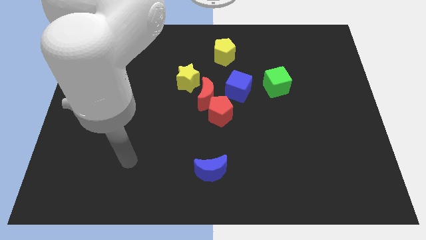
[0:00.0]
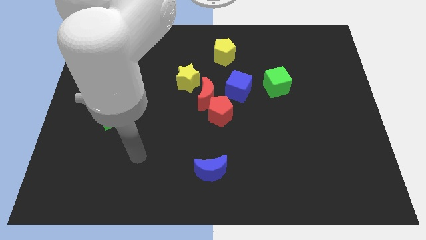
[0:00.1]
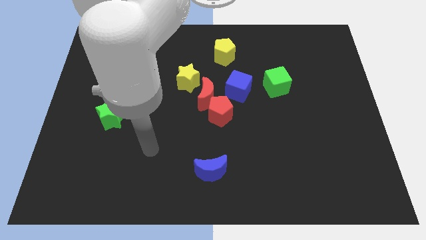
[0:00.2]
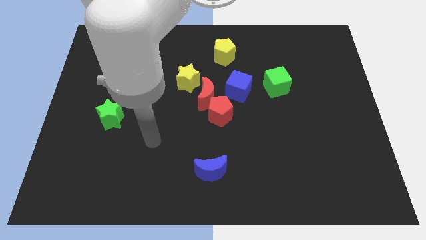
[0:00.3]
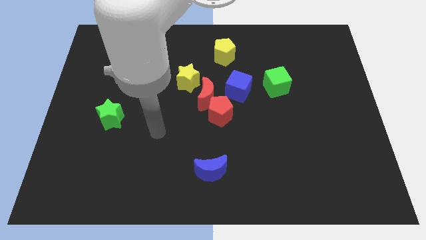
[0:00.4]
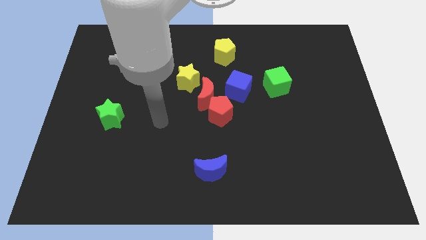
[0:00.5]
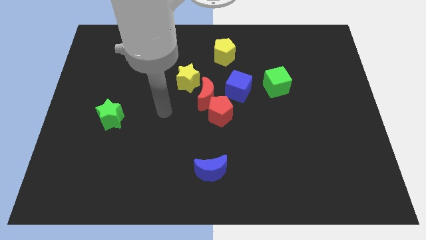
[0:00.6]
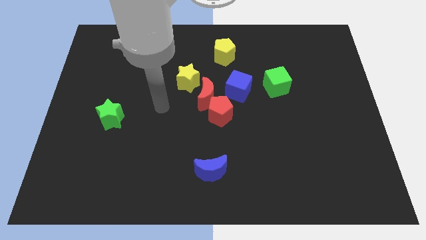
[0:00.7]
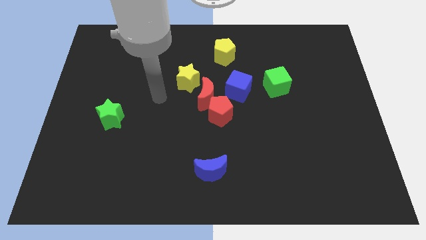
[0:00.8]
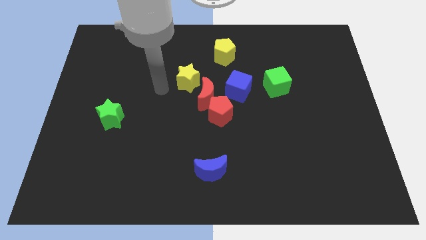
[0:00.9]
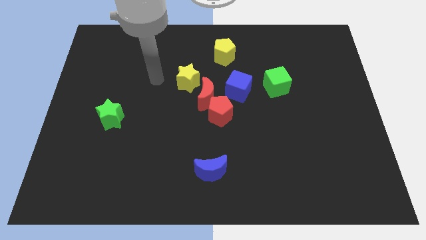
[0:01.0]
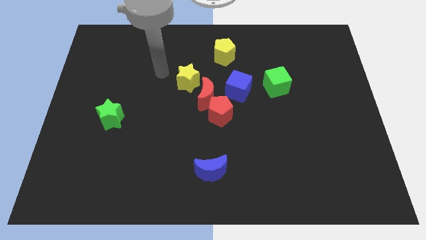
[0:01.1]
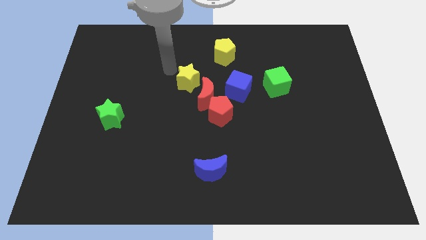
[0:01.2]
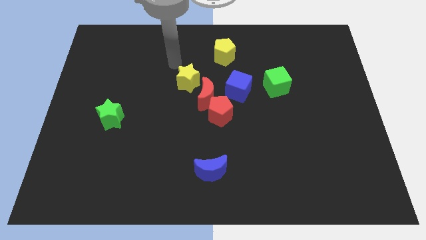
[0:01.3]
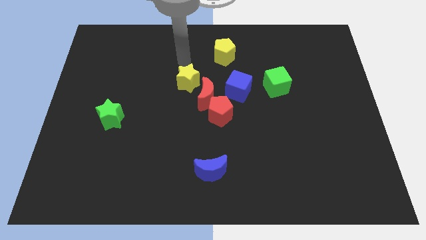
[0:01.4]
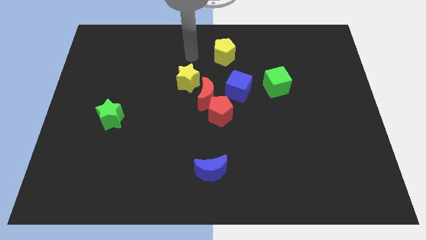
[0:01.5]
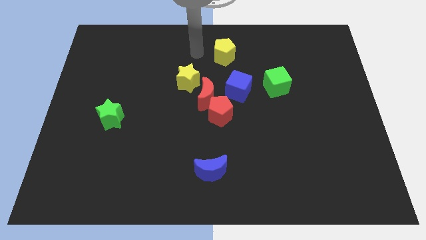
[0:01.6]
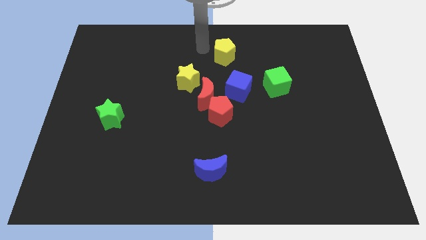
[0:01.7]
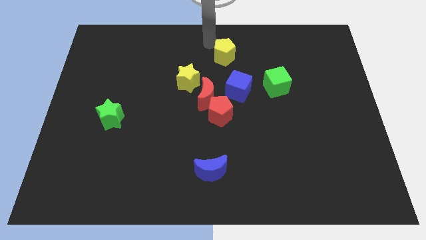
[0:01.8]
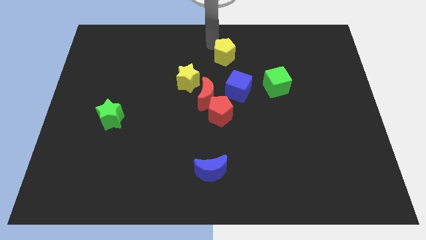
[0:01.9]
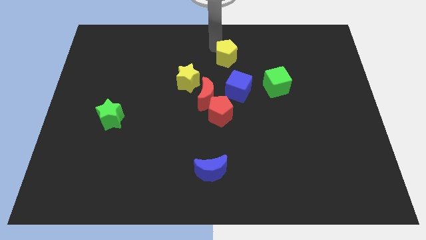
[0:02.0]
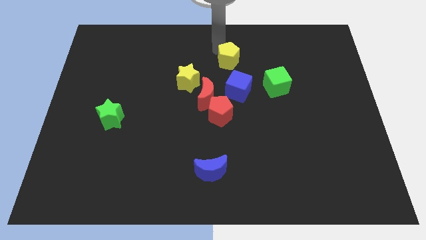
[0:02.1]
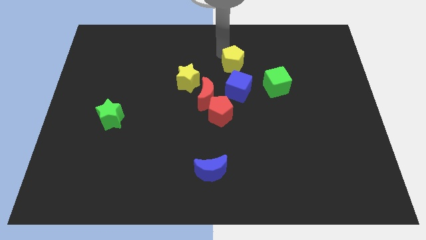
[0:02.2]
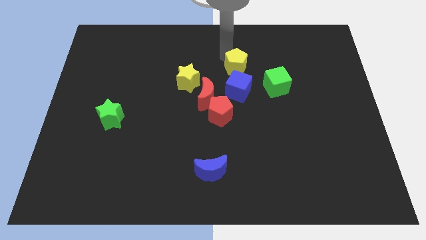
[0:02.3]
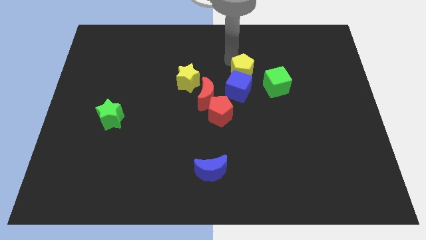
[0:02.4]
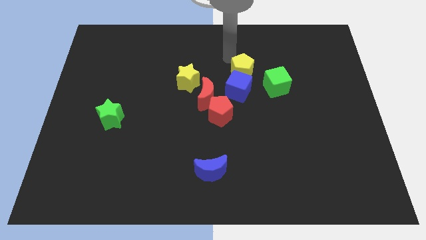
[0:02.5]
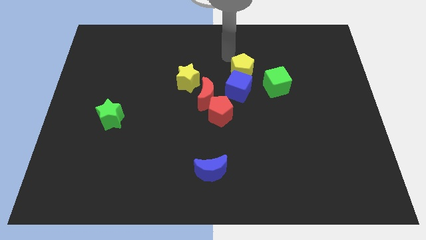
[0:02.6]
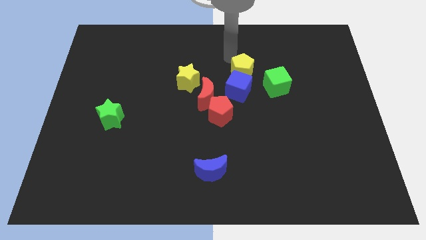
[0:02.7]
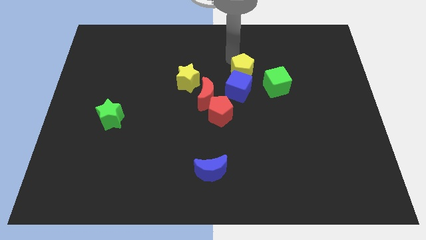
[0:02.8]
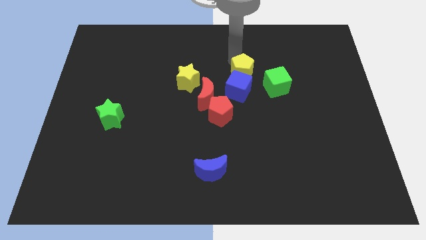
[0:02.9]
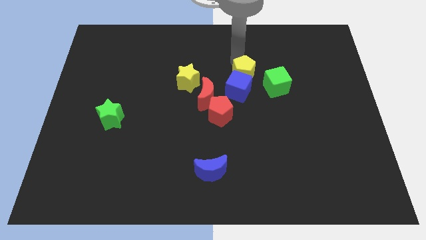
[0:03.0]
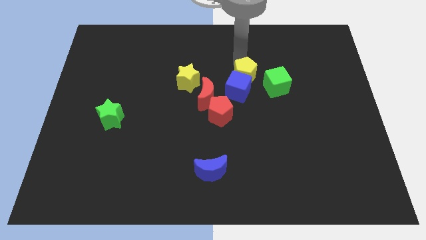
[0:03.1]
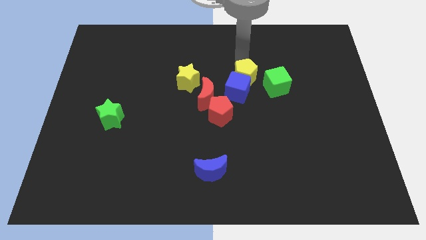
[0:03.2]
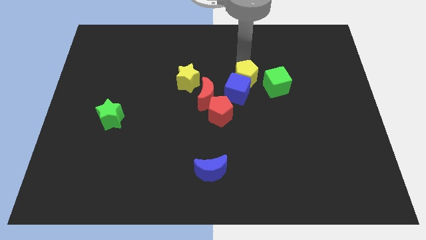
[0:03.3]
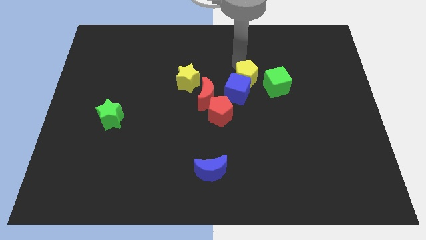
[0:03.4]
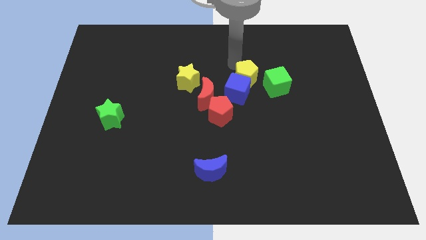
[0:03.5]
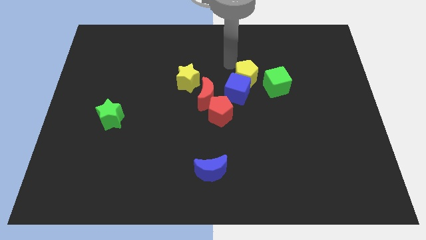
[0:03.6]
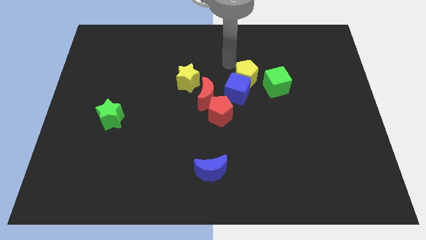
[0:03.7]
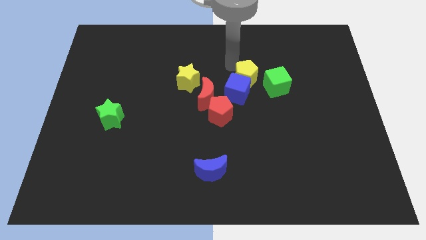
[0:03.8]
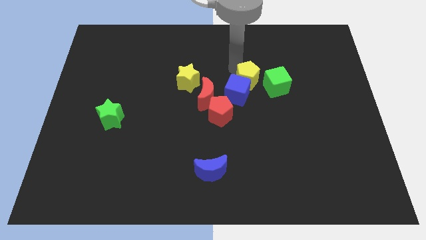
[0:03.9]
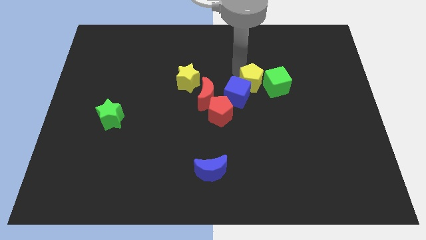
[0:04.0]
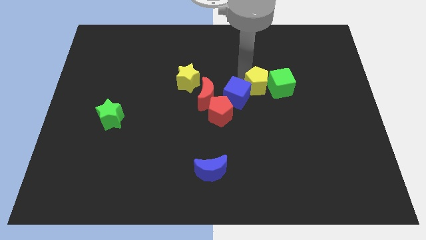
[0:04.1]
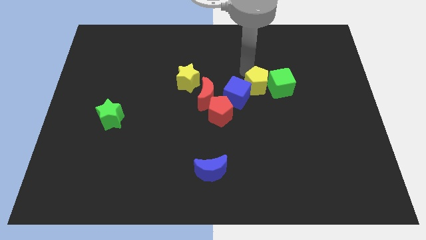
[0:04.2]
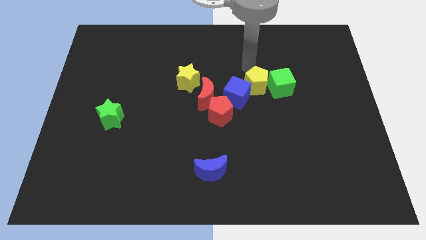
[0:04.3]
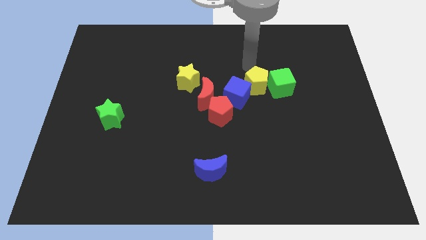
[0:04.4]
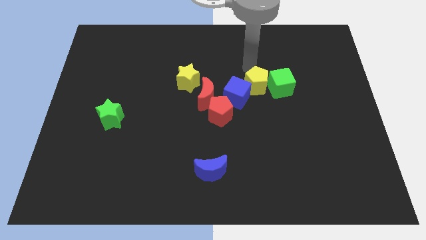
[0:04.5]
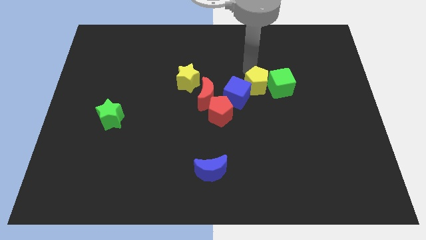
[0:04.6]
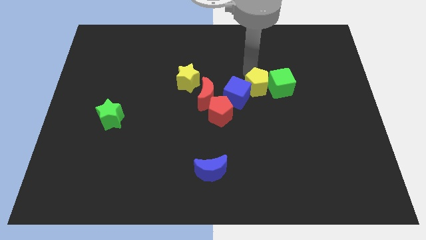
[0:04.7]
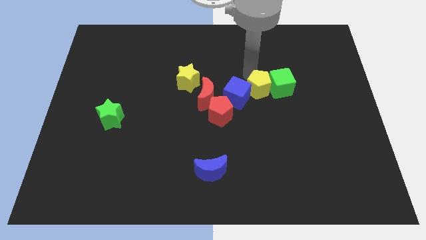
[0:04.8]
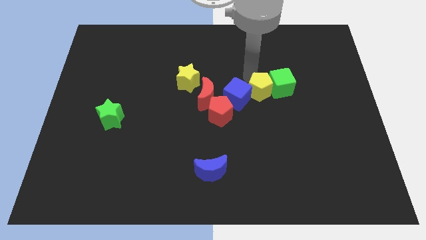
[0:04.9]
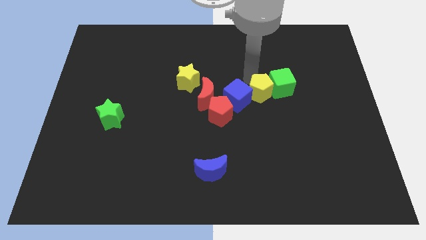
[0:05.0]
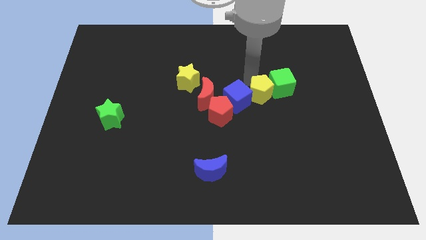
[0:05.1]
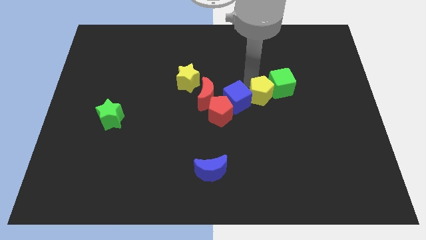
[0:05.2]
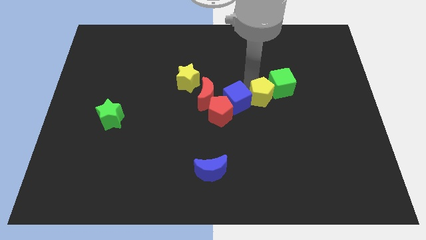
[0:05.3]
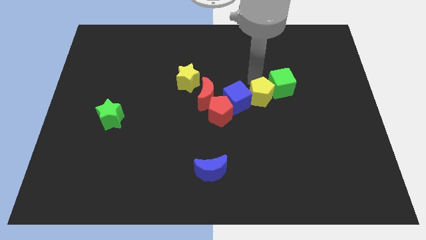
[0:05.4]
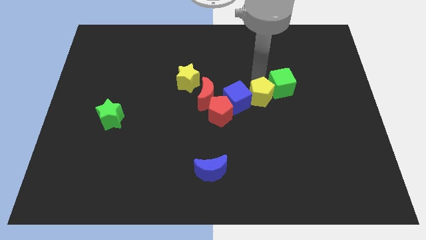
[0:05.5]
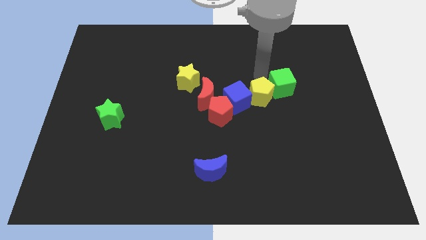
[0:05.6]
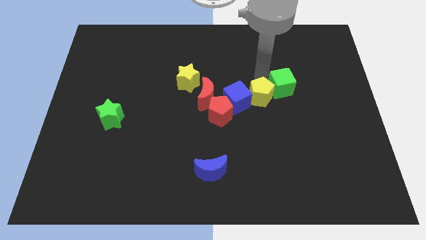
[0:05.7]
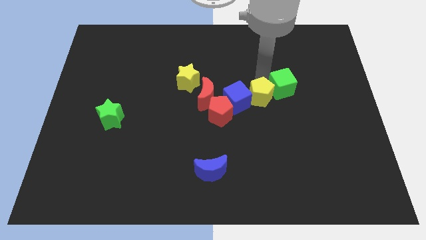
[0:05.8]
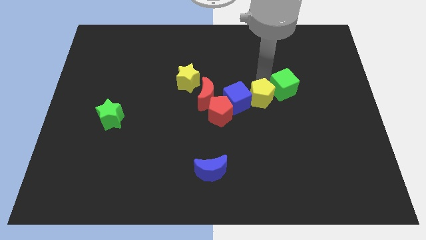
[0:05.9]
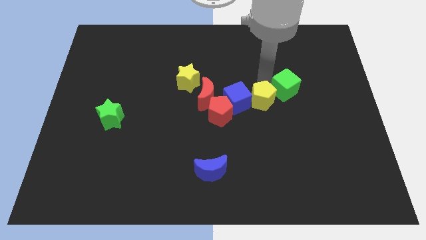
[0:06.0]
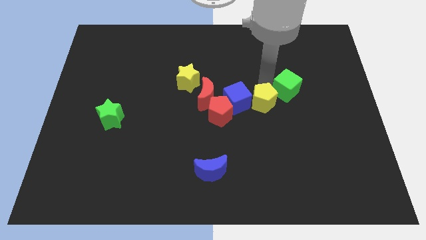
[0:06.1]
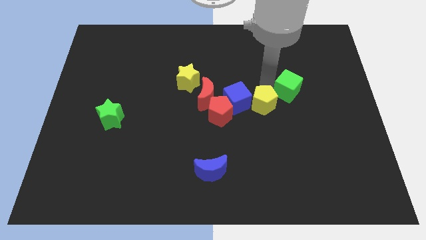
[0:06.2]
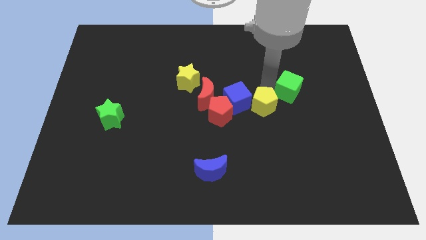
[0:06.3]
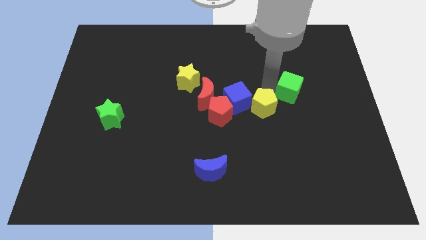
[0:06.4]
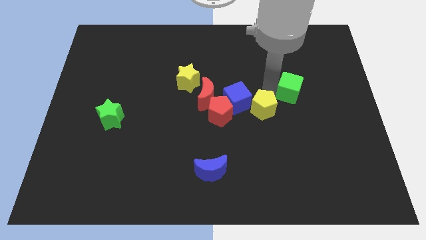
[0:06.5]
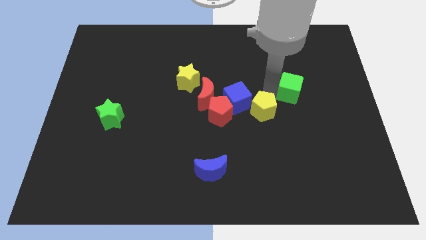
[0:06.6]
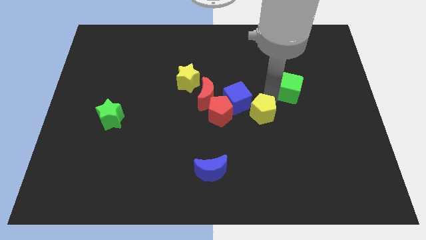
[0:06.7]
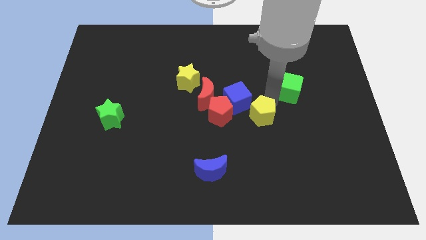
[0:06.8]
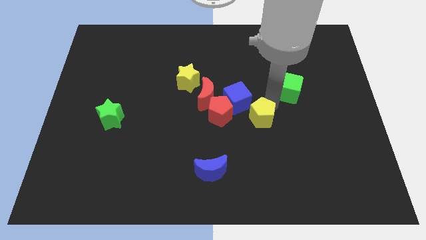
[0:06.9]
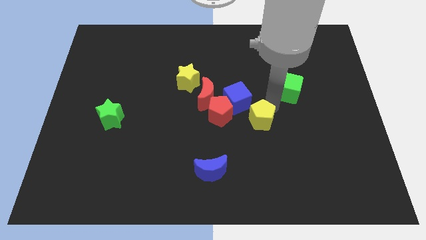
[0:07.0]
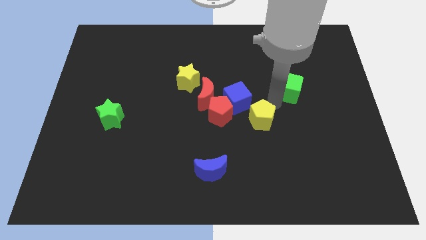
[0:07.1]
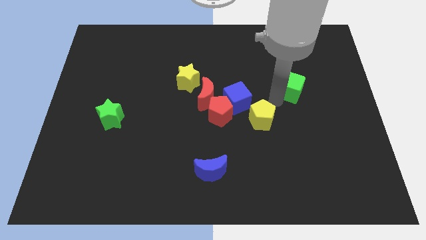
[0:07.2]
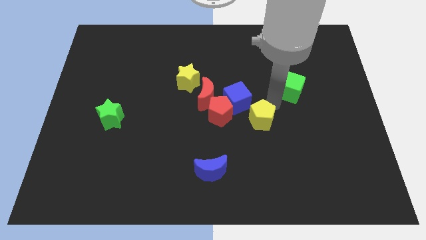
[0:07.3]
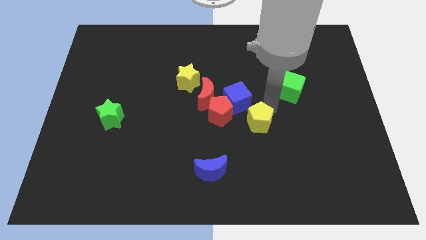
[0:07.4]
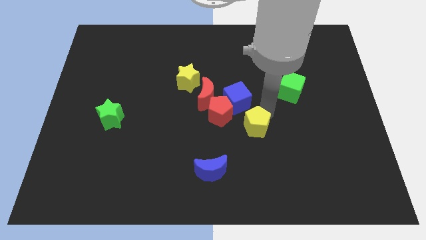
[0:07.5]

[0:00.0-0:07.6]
slide the yellow pentagon downwards

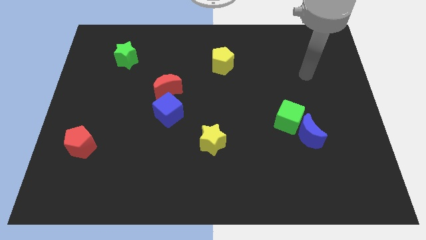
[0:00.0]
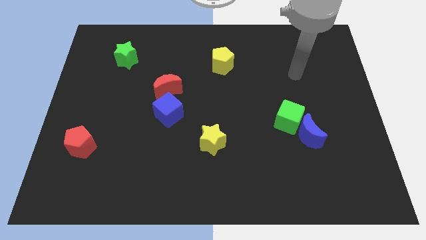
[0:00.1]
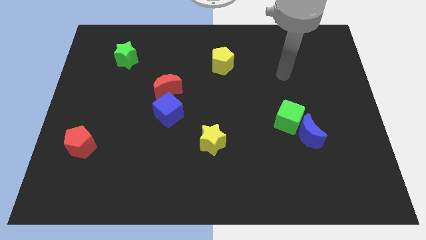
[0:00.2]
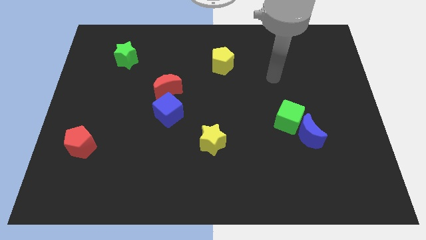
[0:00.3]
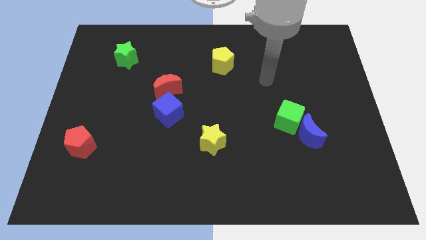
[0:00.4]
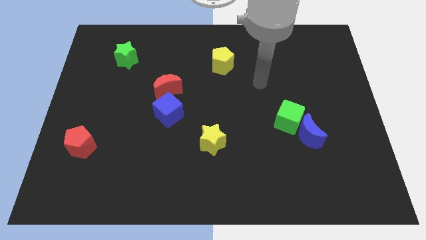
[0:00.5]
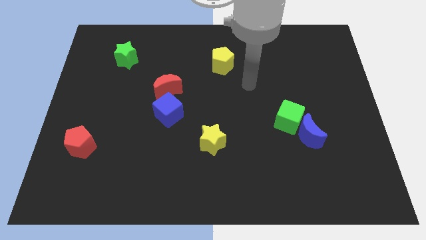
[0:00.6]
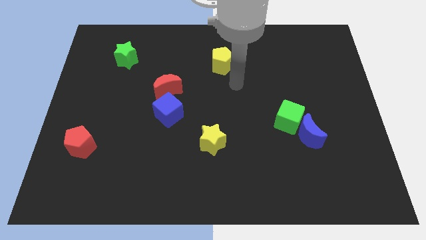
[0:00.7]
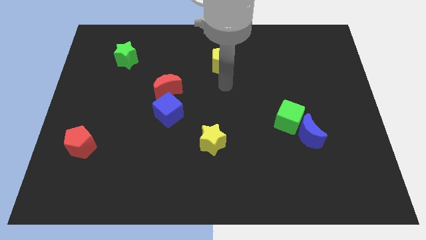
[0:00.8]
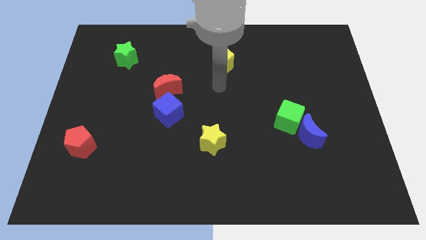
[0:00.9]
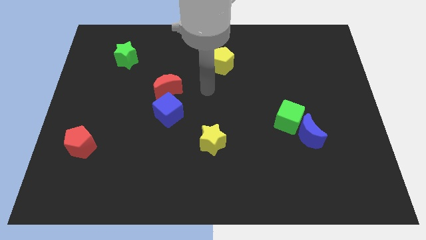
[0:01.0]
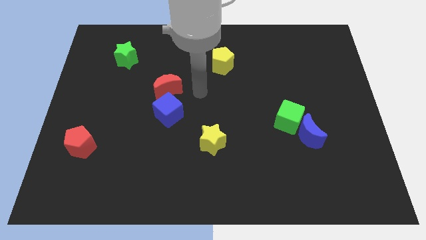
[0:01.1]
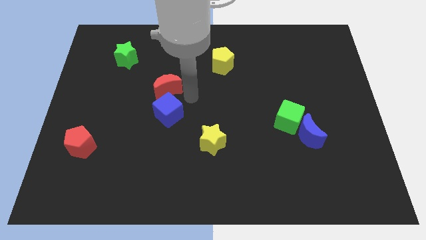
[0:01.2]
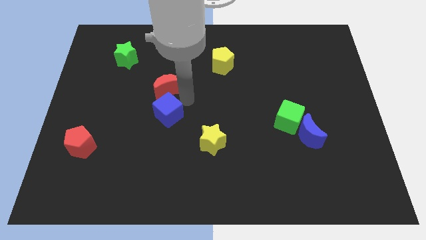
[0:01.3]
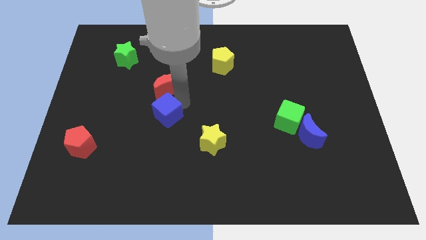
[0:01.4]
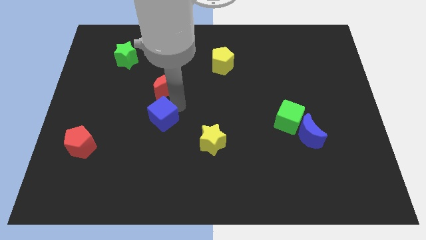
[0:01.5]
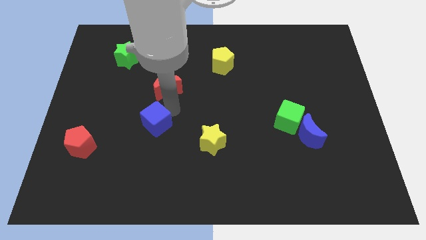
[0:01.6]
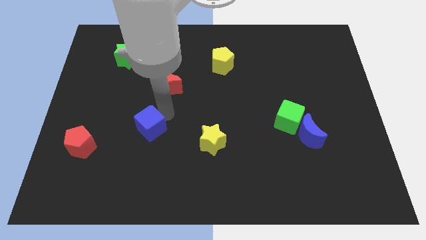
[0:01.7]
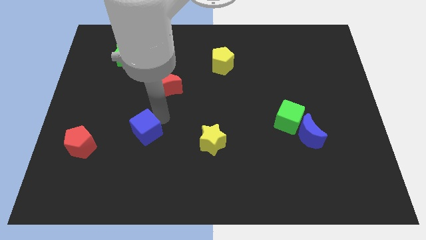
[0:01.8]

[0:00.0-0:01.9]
push the blue cube downwards and then to the left a little
